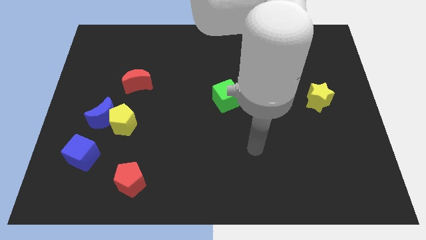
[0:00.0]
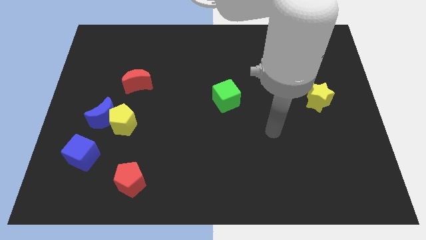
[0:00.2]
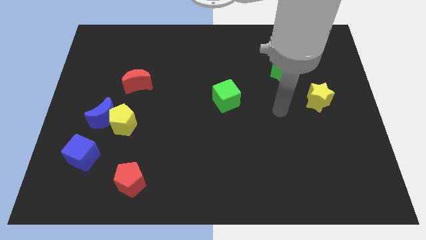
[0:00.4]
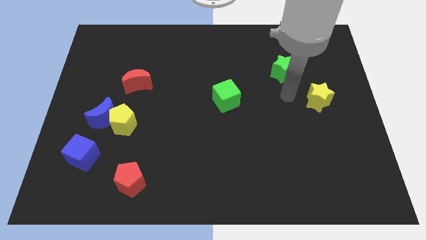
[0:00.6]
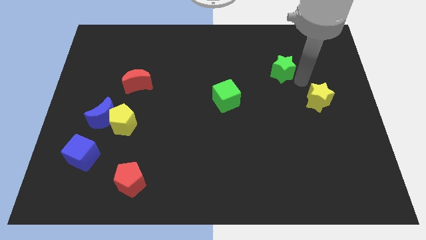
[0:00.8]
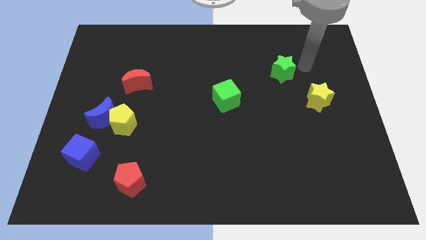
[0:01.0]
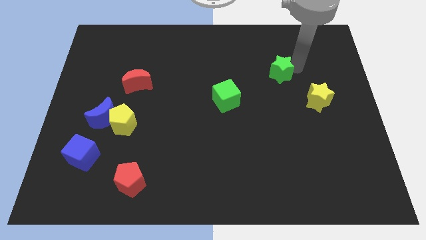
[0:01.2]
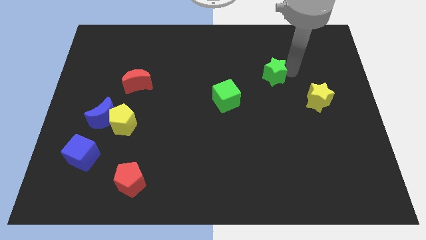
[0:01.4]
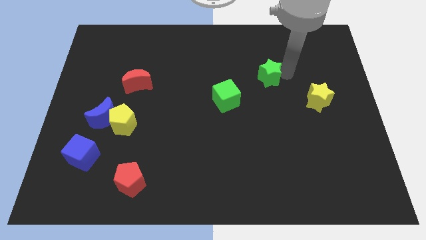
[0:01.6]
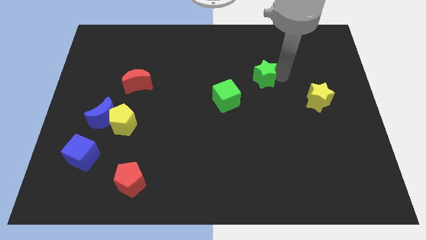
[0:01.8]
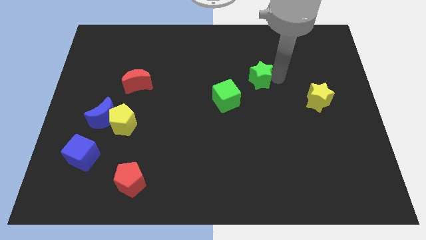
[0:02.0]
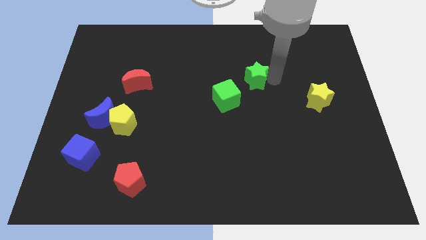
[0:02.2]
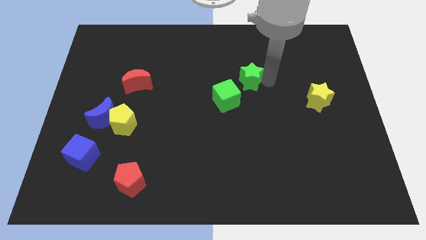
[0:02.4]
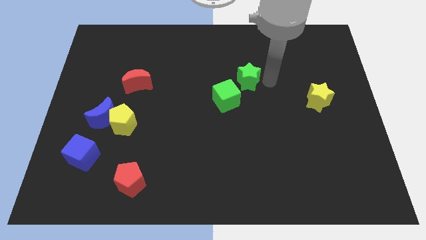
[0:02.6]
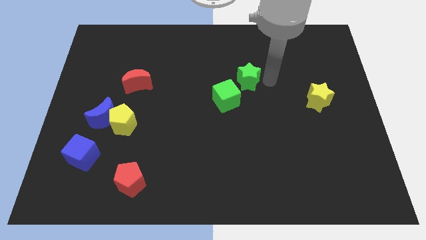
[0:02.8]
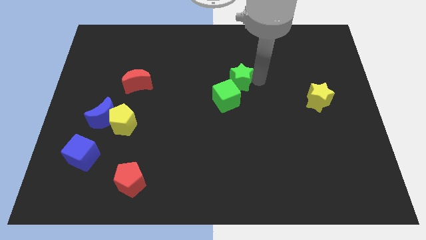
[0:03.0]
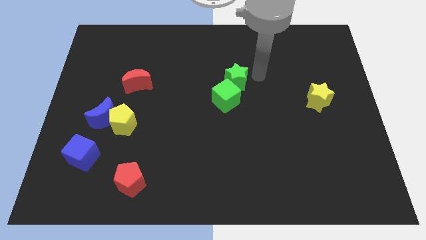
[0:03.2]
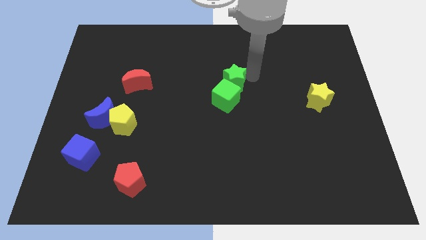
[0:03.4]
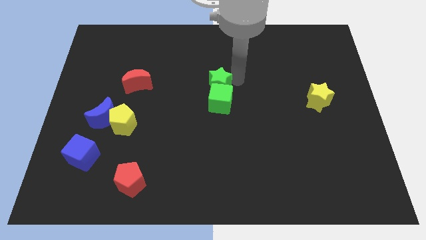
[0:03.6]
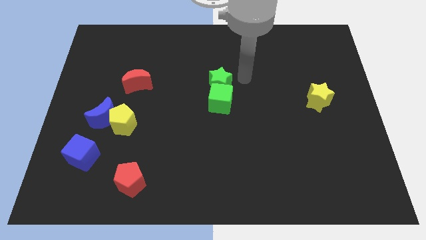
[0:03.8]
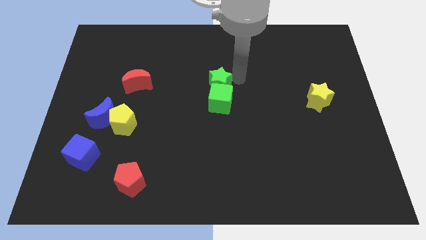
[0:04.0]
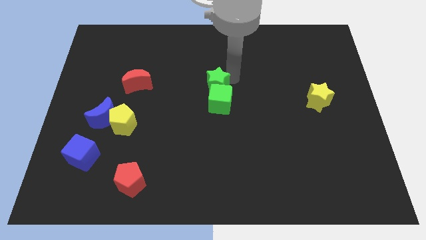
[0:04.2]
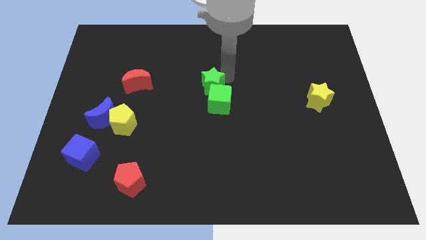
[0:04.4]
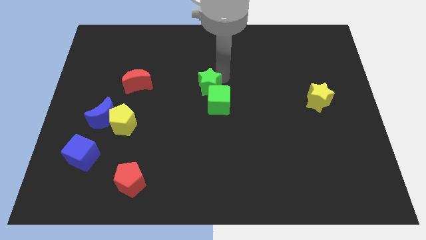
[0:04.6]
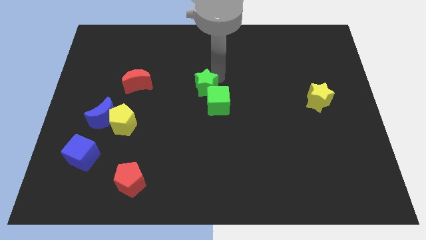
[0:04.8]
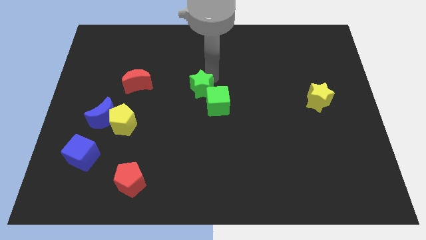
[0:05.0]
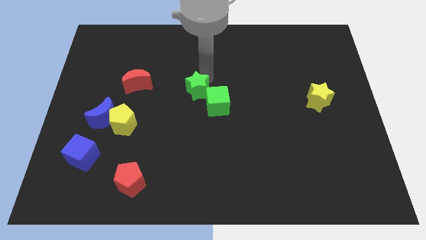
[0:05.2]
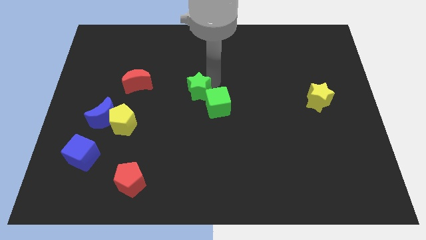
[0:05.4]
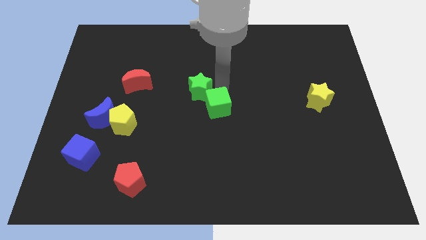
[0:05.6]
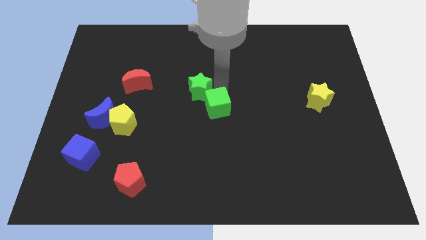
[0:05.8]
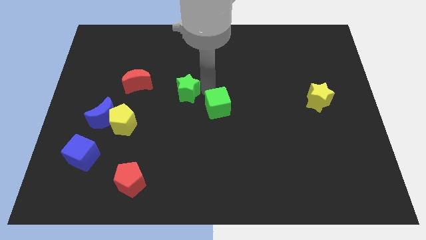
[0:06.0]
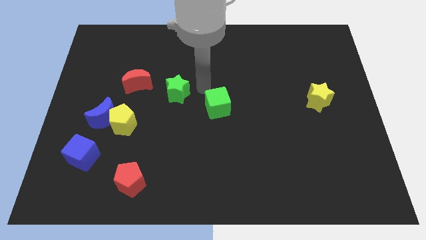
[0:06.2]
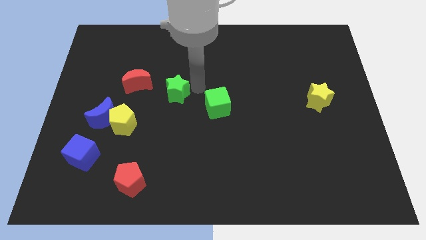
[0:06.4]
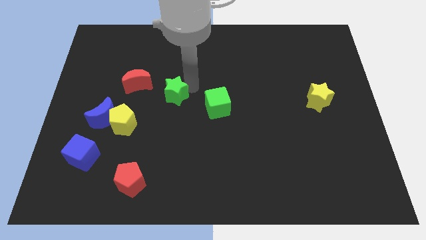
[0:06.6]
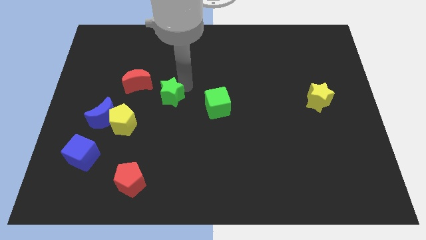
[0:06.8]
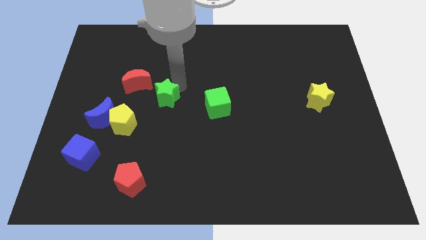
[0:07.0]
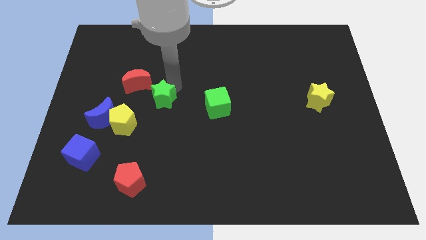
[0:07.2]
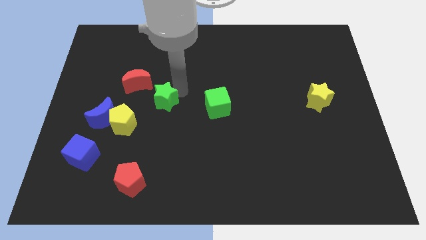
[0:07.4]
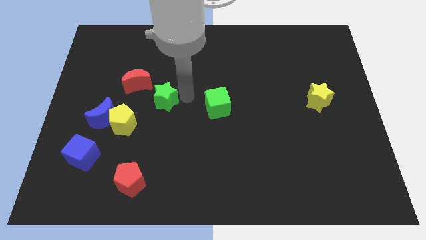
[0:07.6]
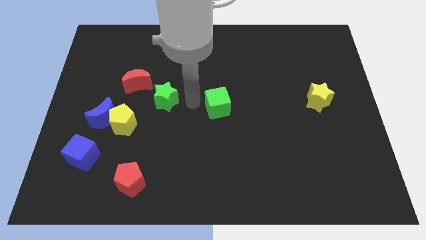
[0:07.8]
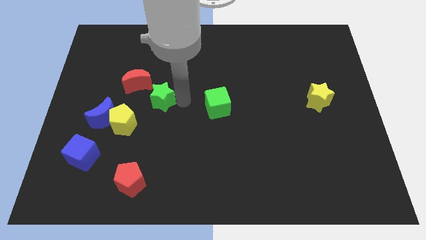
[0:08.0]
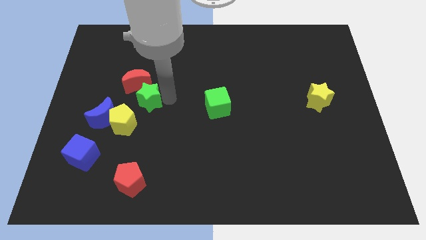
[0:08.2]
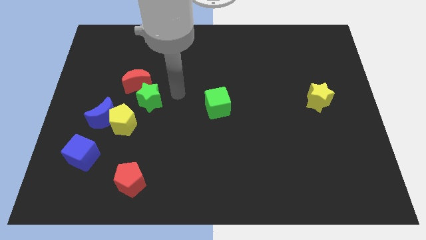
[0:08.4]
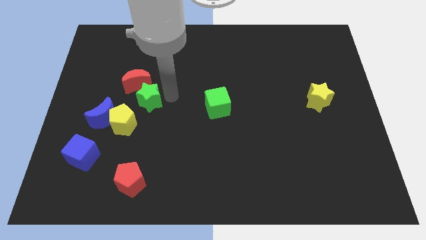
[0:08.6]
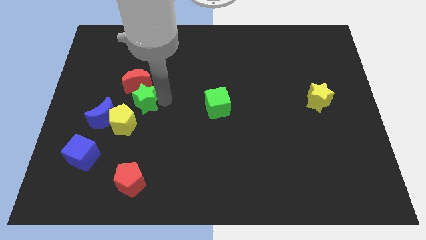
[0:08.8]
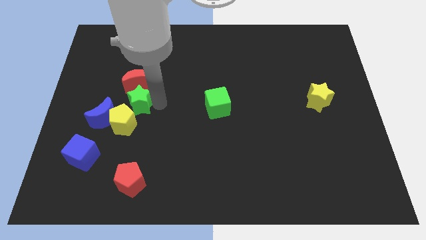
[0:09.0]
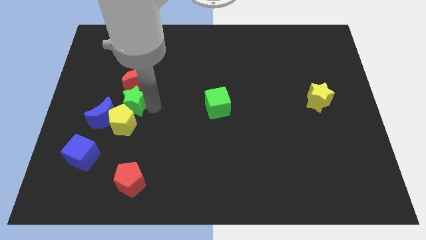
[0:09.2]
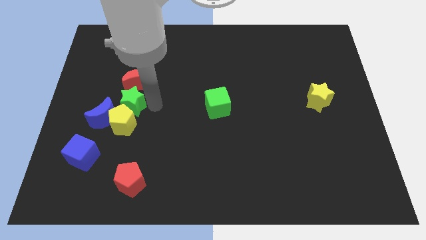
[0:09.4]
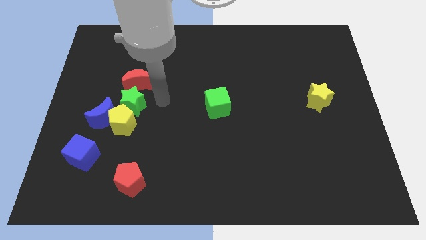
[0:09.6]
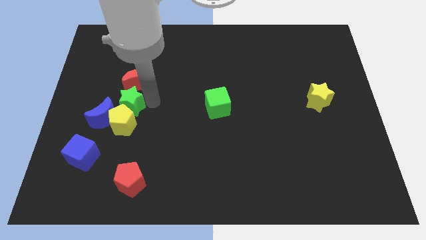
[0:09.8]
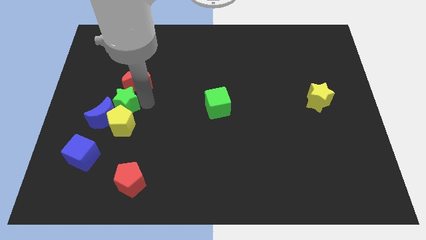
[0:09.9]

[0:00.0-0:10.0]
move the green star next to the blue moon

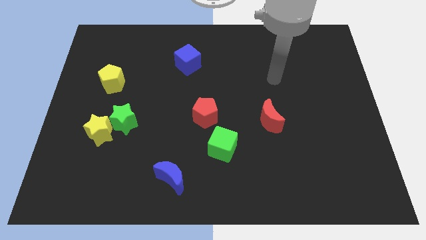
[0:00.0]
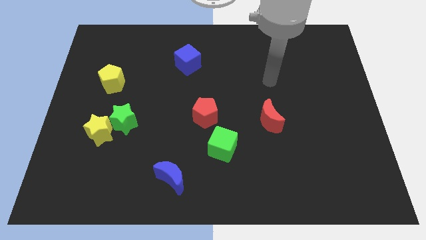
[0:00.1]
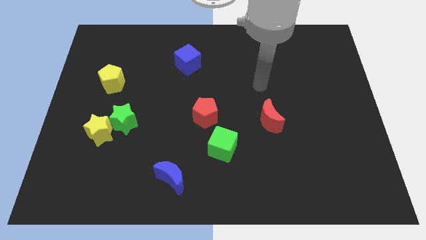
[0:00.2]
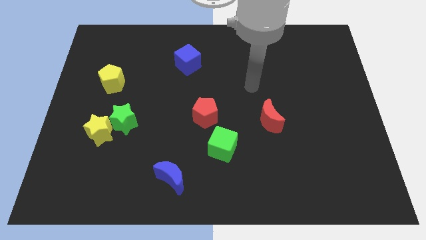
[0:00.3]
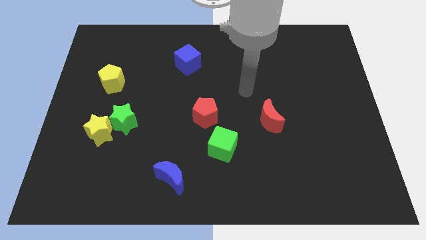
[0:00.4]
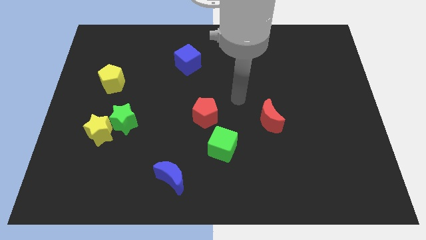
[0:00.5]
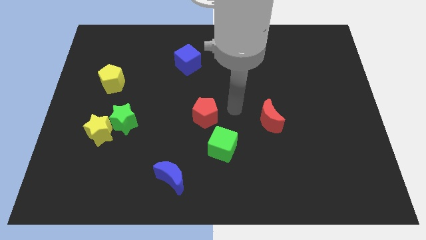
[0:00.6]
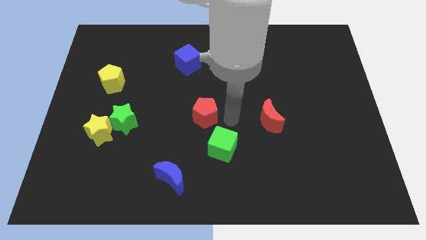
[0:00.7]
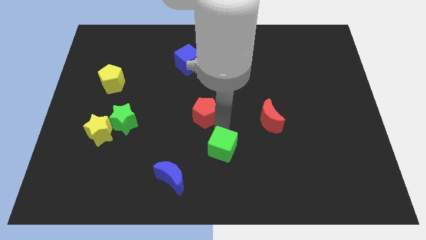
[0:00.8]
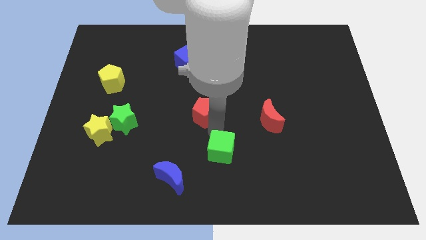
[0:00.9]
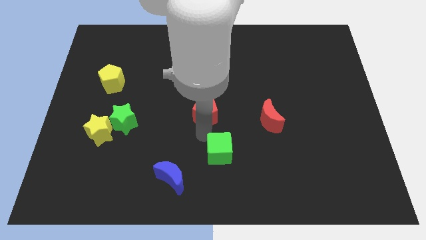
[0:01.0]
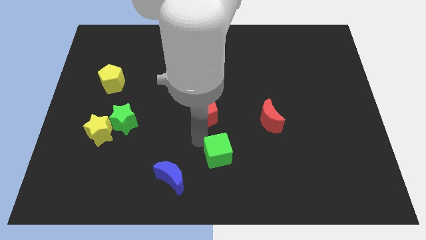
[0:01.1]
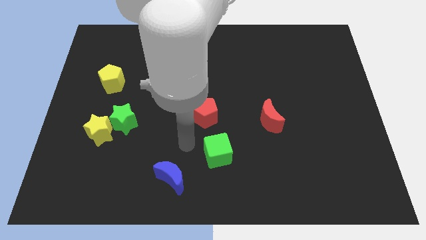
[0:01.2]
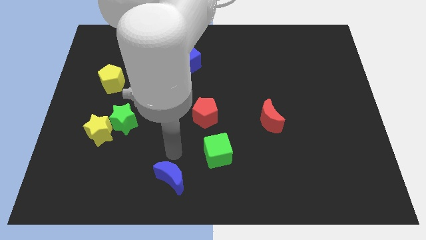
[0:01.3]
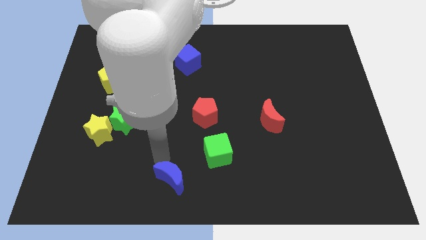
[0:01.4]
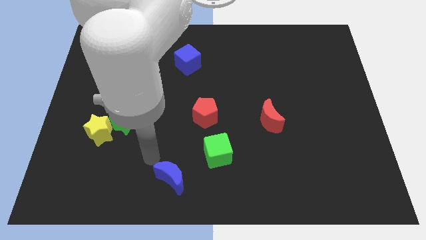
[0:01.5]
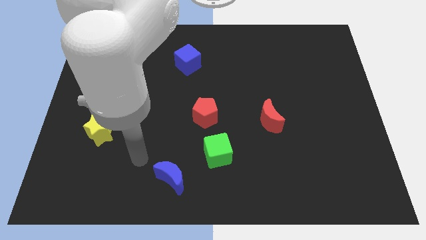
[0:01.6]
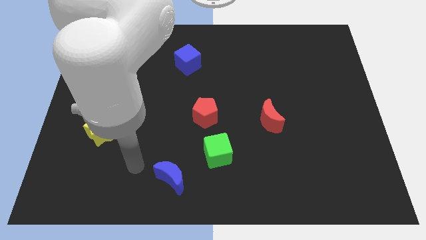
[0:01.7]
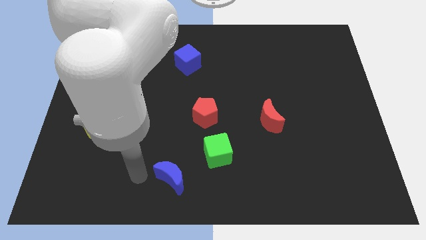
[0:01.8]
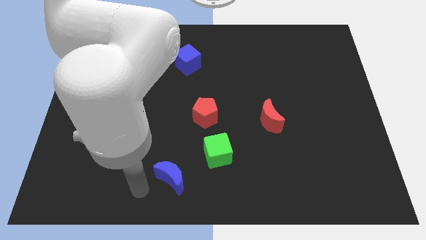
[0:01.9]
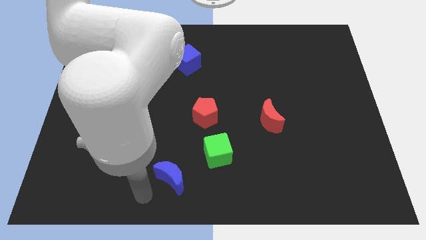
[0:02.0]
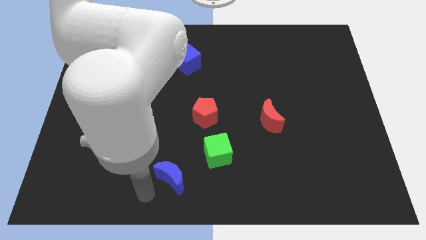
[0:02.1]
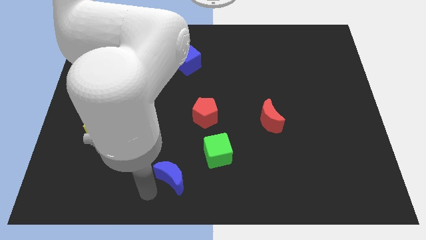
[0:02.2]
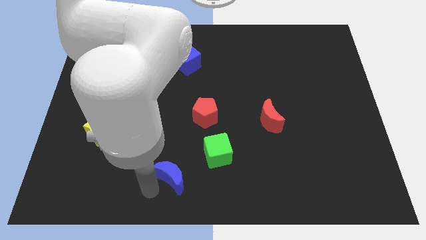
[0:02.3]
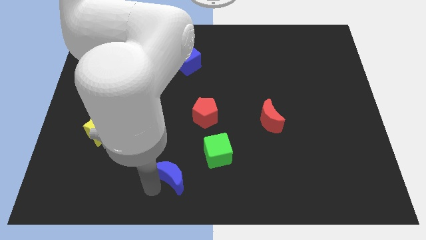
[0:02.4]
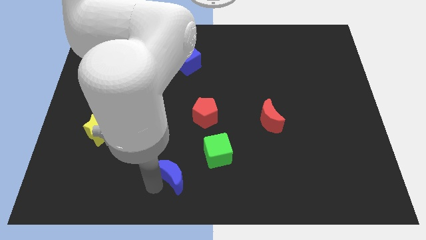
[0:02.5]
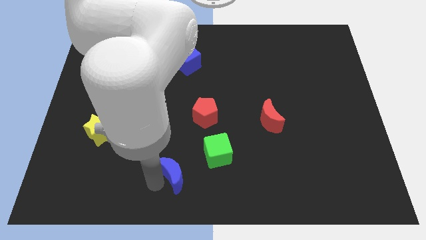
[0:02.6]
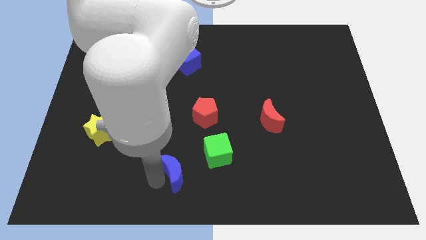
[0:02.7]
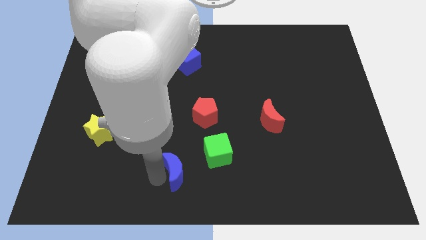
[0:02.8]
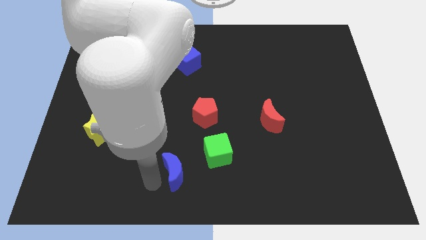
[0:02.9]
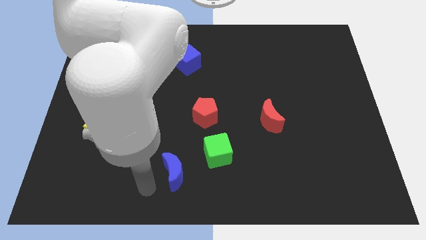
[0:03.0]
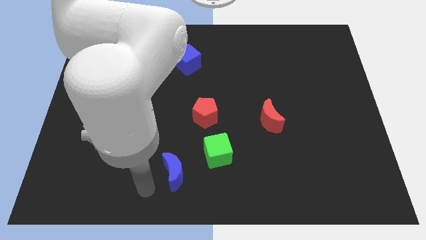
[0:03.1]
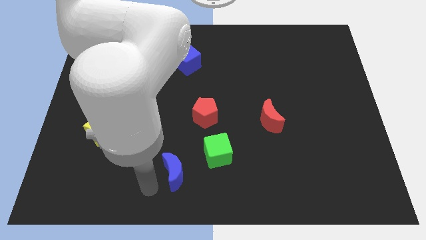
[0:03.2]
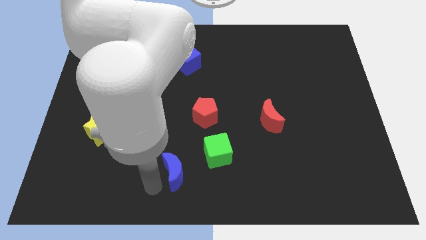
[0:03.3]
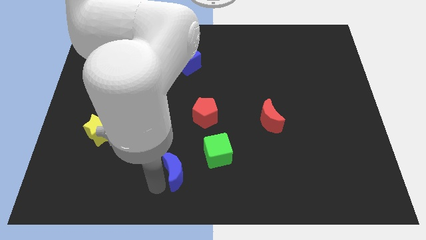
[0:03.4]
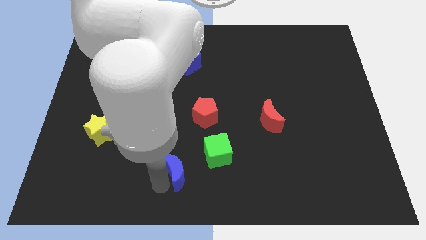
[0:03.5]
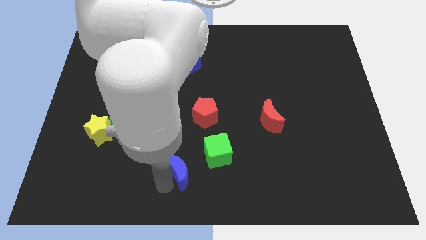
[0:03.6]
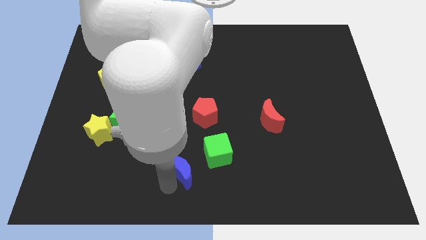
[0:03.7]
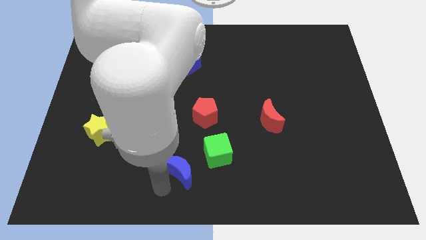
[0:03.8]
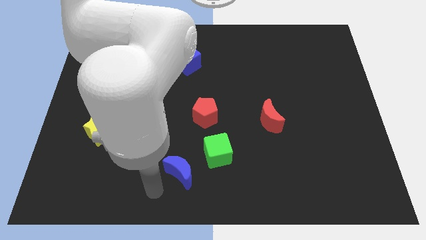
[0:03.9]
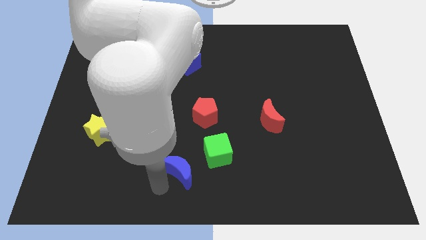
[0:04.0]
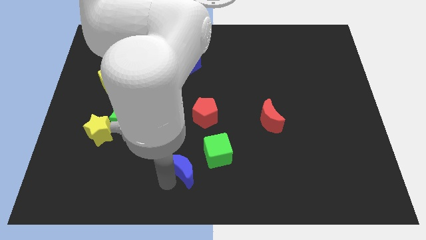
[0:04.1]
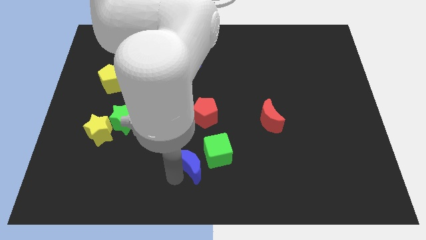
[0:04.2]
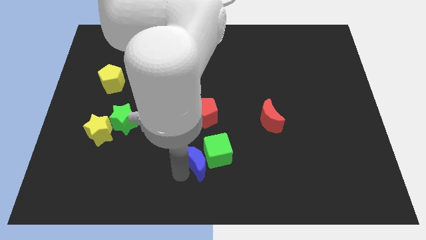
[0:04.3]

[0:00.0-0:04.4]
move the blue moon next to the green cube
